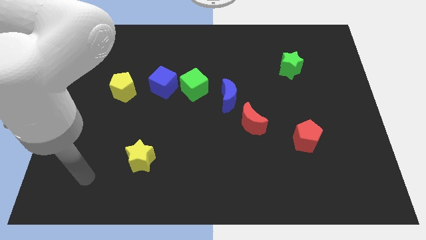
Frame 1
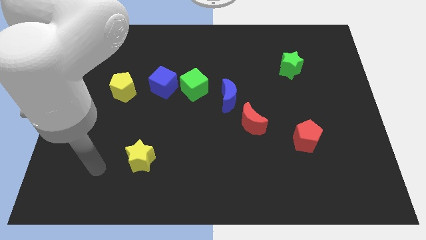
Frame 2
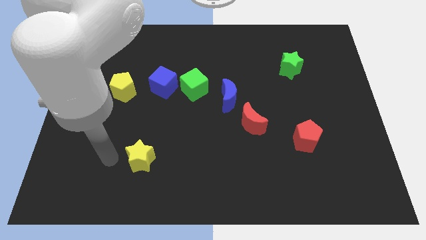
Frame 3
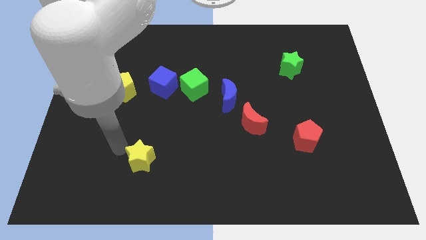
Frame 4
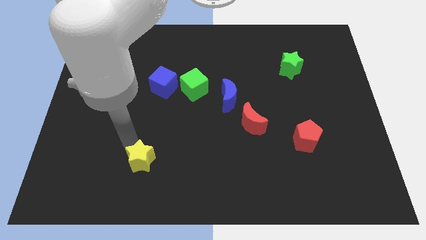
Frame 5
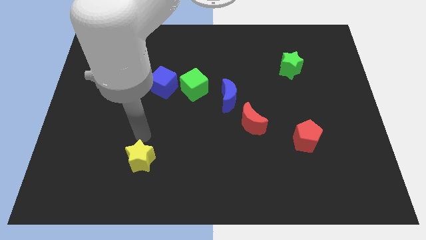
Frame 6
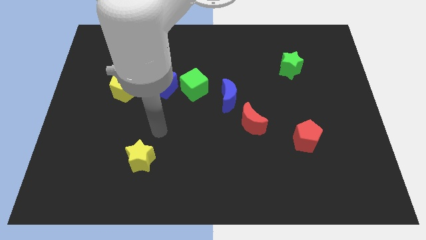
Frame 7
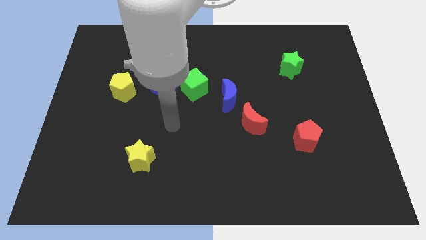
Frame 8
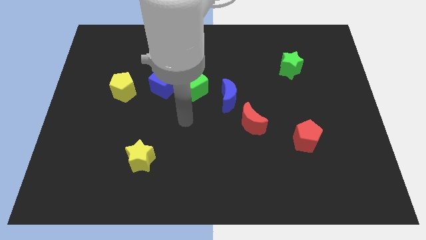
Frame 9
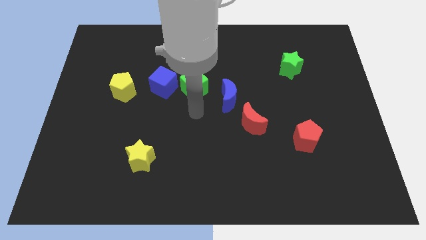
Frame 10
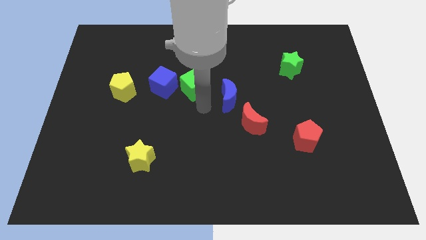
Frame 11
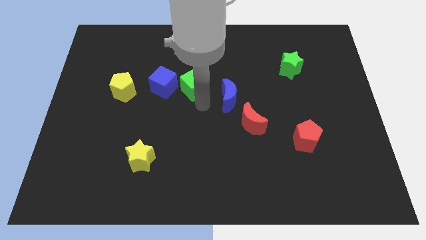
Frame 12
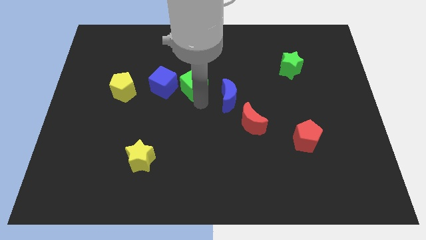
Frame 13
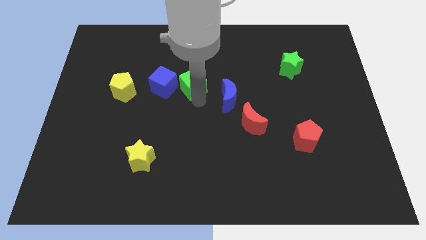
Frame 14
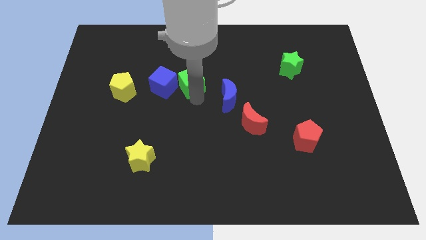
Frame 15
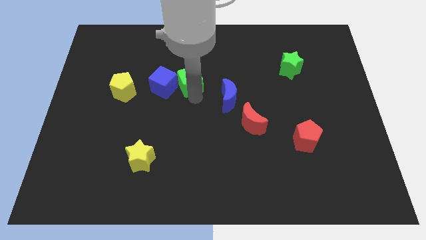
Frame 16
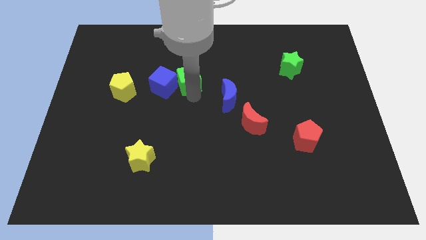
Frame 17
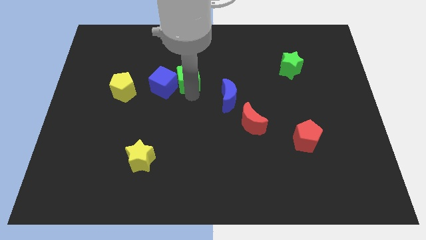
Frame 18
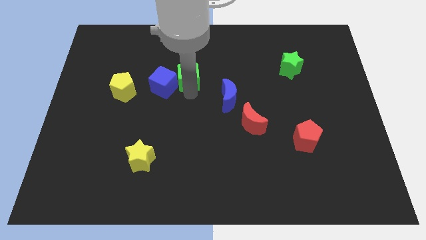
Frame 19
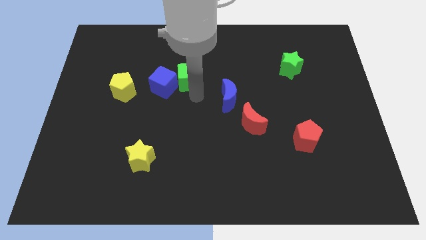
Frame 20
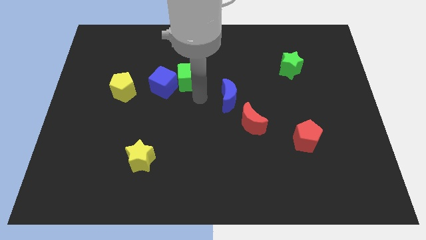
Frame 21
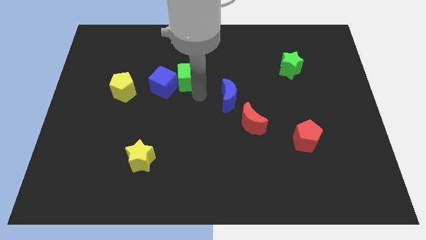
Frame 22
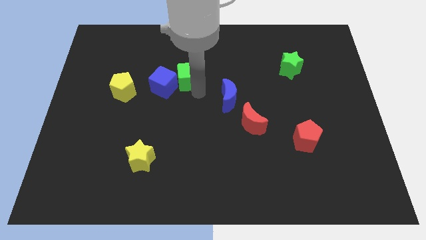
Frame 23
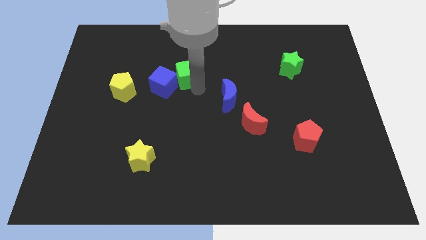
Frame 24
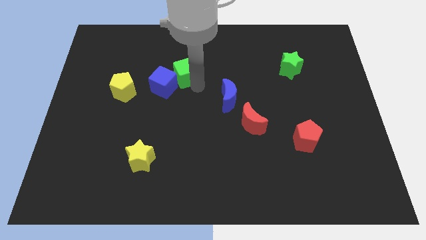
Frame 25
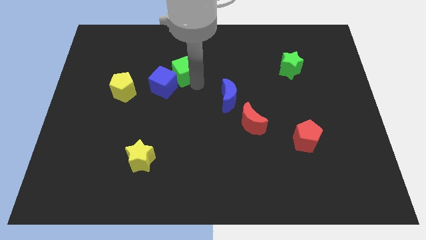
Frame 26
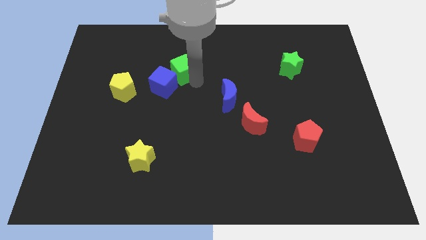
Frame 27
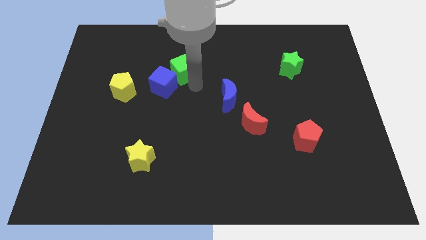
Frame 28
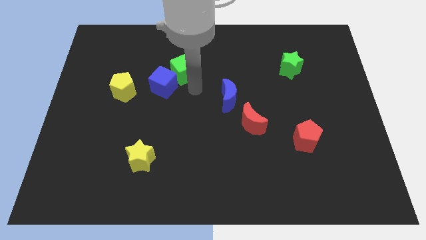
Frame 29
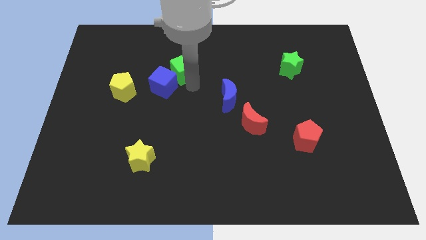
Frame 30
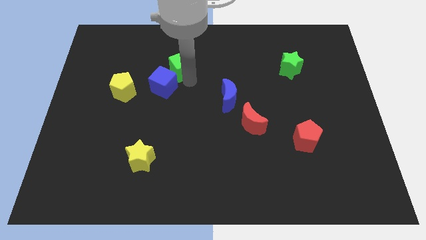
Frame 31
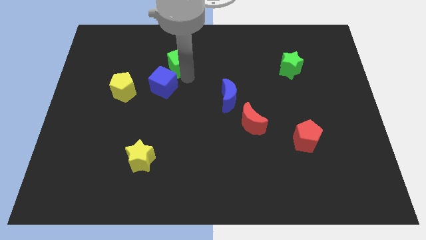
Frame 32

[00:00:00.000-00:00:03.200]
move the green cube away from the blue cube and blue moon

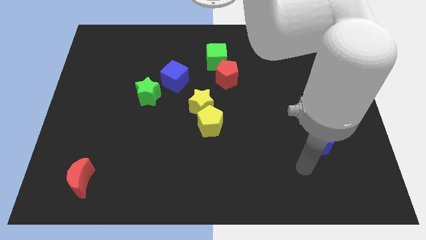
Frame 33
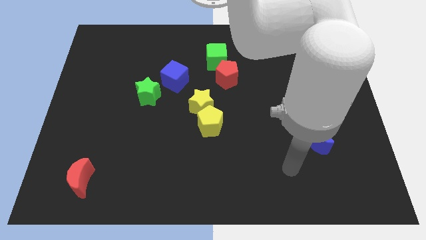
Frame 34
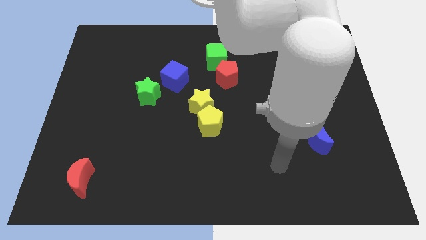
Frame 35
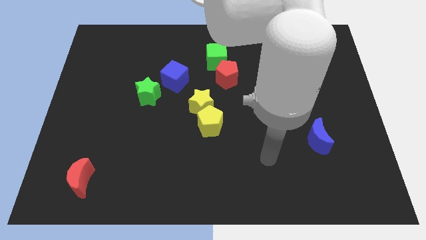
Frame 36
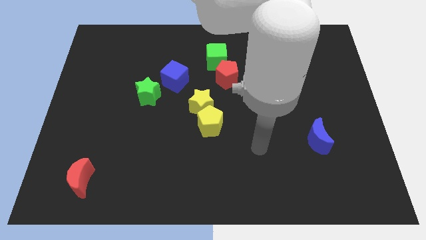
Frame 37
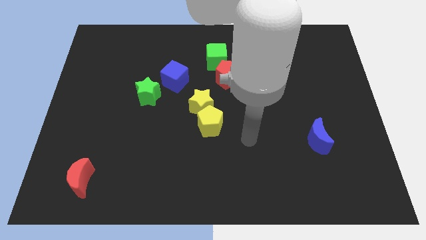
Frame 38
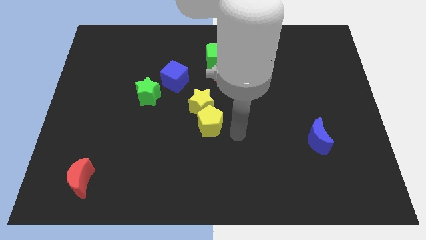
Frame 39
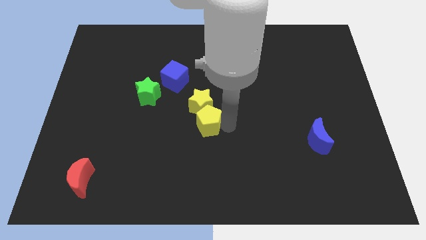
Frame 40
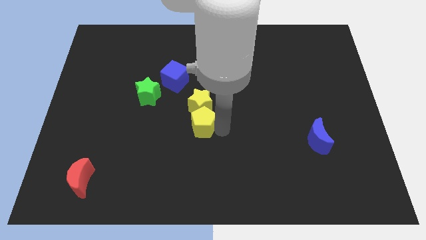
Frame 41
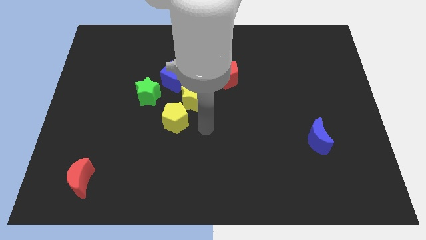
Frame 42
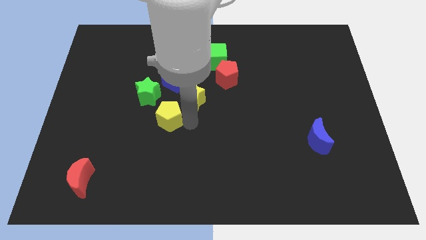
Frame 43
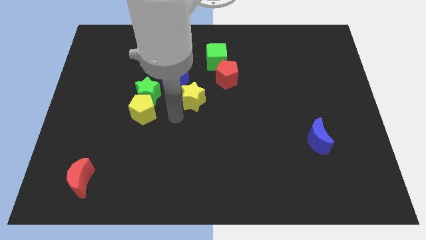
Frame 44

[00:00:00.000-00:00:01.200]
move the yellow star away from the yellow pentagon

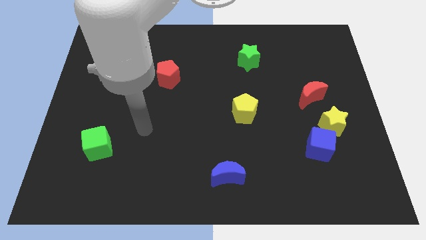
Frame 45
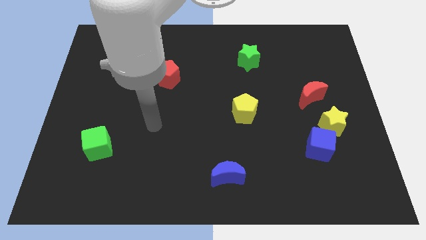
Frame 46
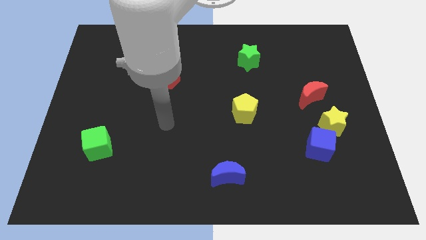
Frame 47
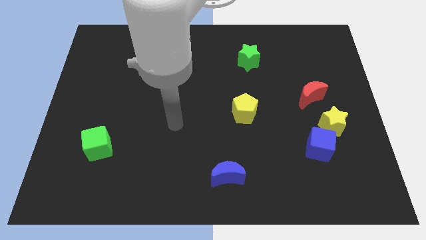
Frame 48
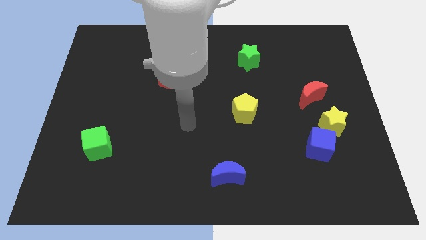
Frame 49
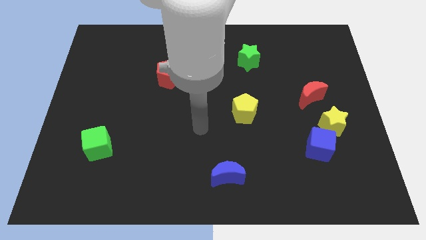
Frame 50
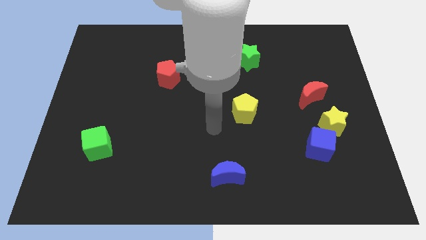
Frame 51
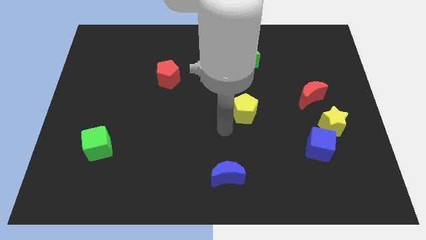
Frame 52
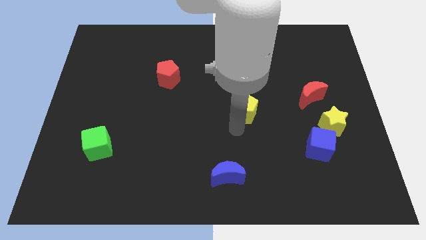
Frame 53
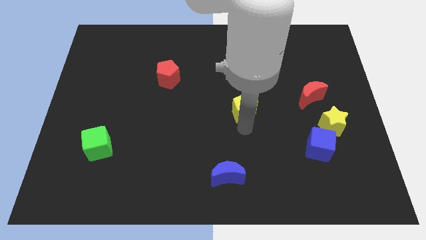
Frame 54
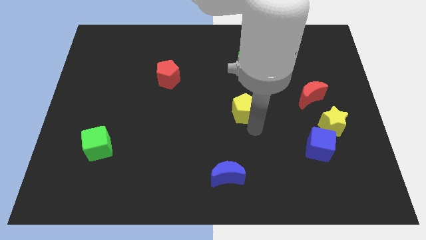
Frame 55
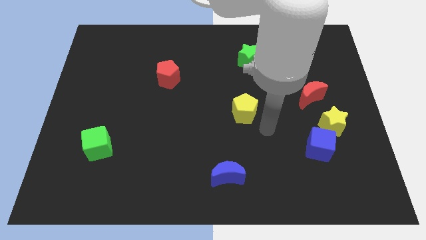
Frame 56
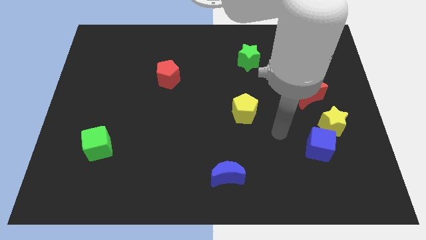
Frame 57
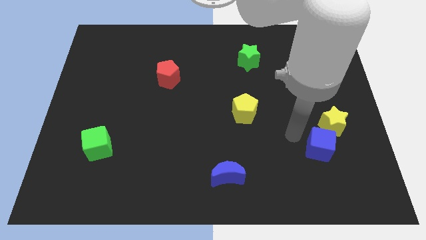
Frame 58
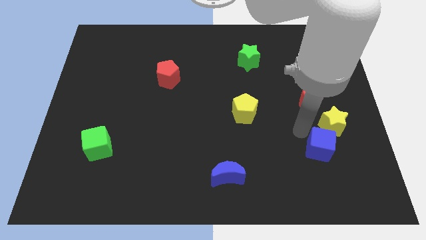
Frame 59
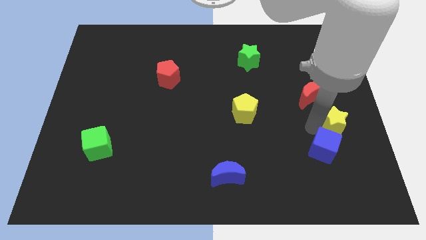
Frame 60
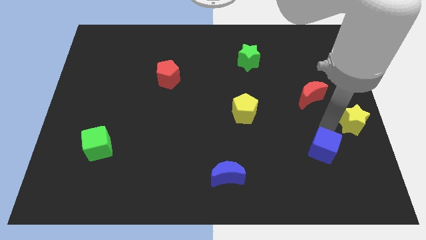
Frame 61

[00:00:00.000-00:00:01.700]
move the blue cube away from the yellow star

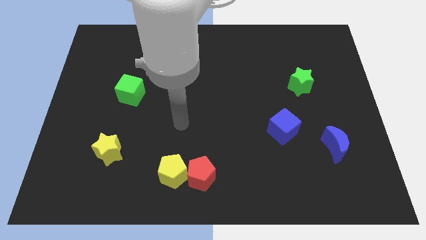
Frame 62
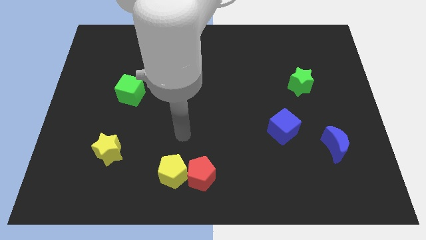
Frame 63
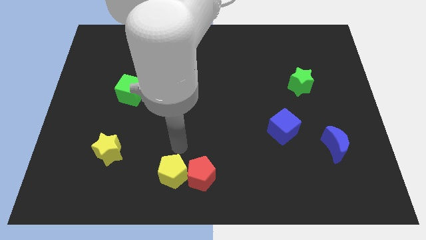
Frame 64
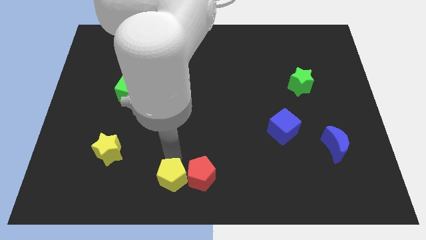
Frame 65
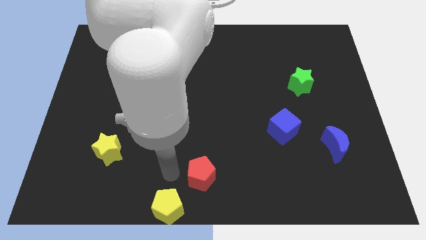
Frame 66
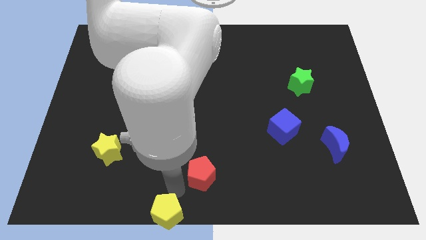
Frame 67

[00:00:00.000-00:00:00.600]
separate the red pentagon from the yellow pentagon

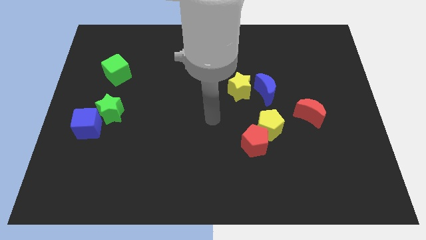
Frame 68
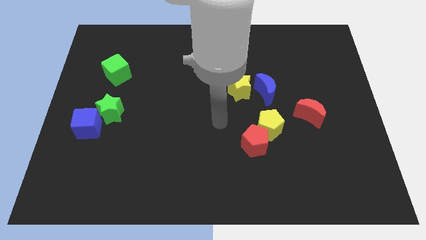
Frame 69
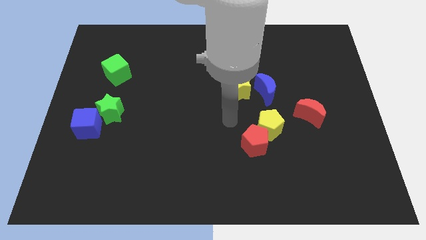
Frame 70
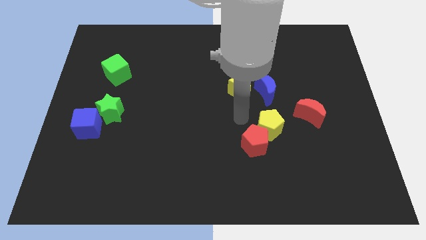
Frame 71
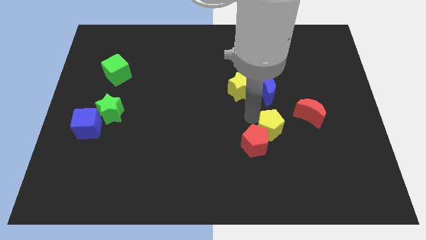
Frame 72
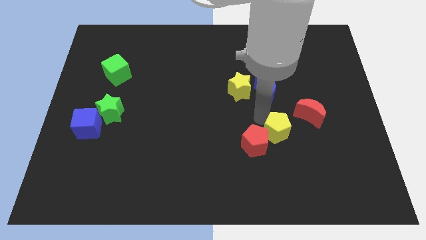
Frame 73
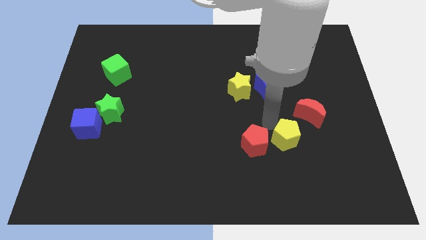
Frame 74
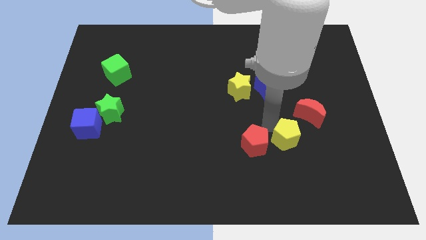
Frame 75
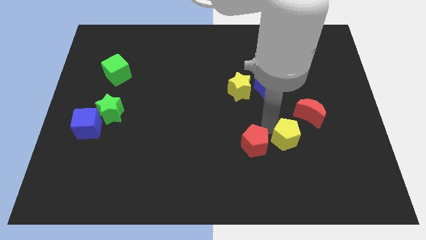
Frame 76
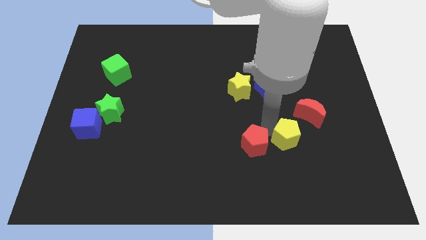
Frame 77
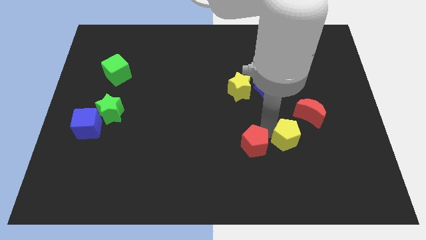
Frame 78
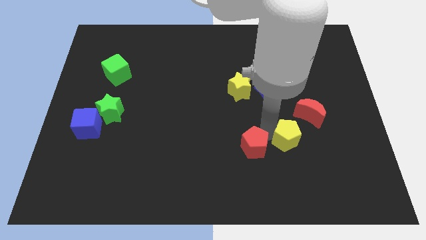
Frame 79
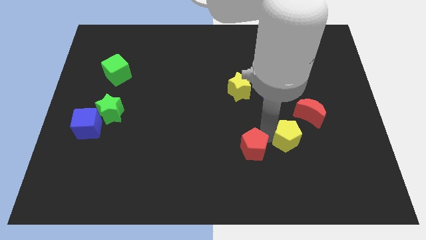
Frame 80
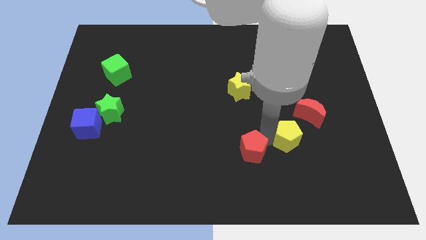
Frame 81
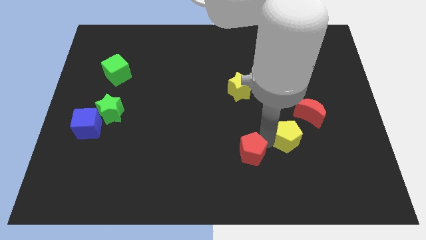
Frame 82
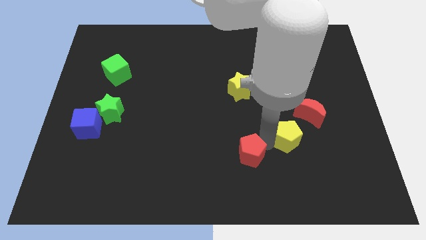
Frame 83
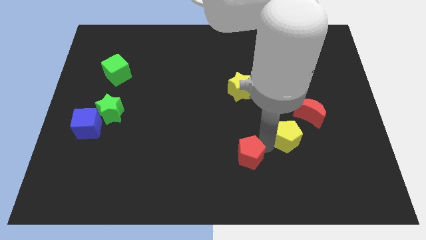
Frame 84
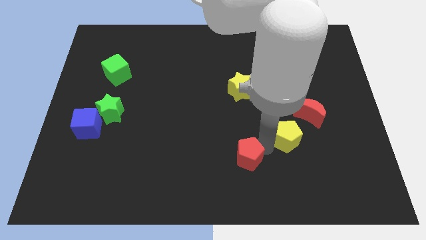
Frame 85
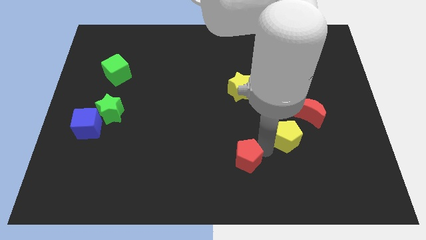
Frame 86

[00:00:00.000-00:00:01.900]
move the red pentagon away from the yellow pentagon

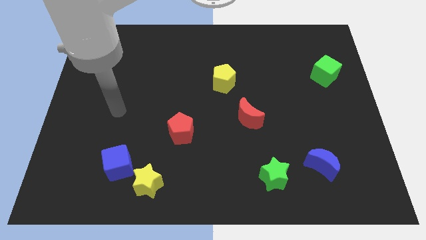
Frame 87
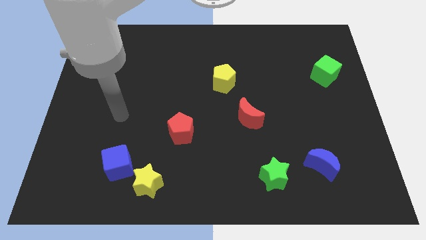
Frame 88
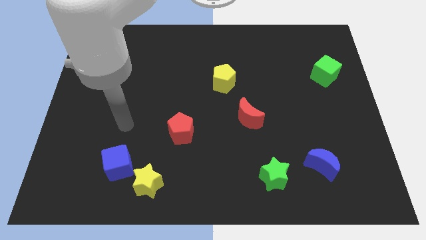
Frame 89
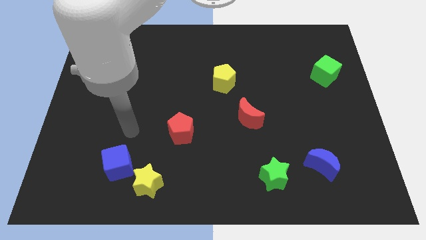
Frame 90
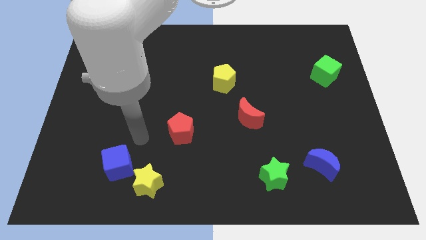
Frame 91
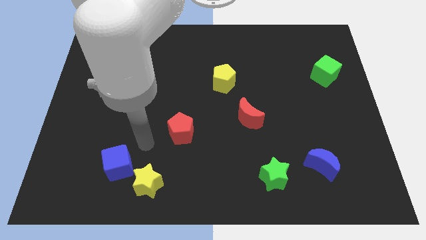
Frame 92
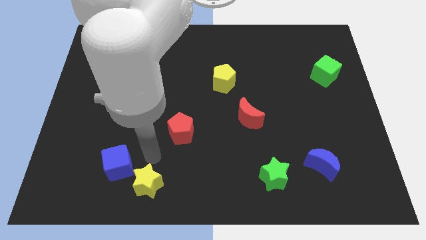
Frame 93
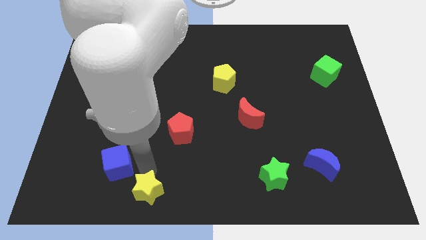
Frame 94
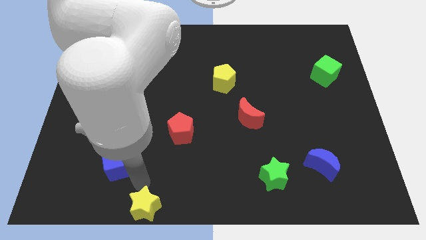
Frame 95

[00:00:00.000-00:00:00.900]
separate the blue cube from the yellow star
